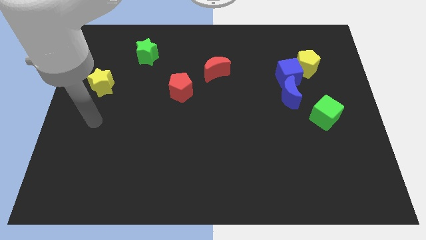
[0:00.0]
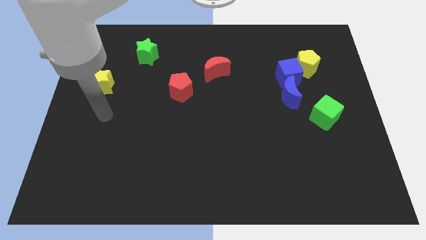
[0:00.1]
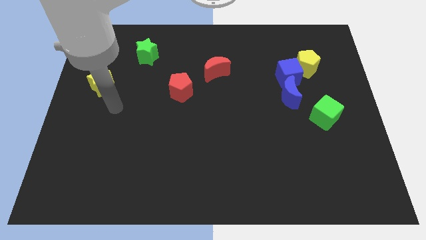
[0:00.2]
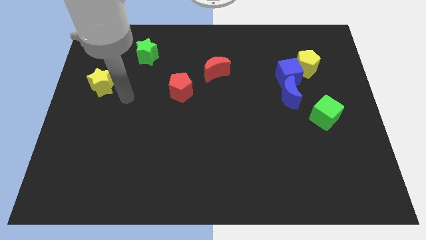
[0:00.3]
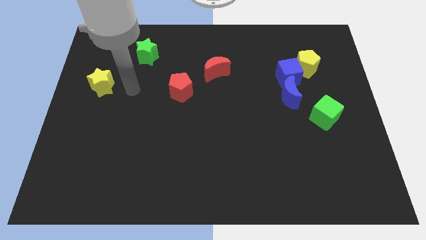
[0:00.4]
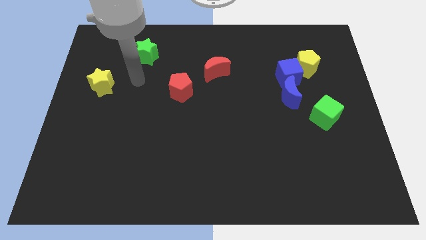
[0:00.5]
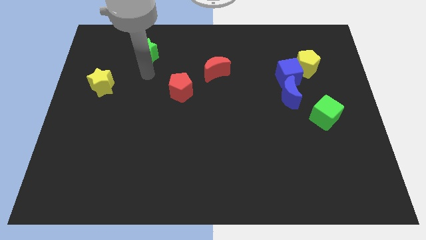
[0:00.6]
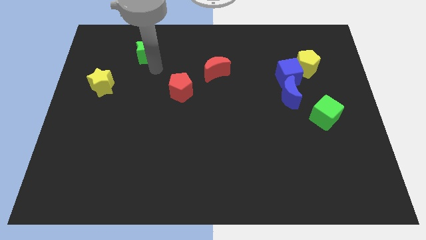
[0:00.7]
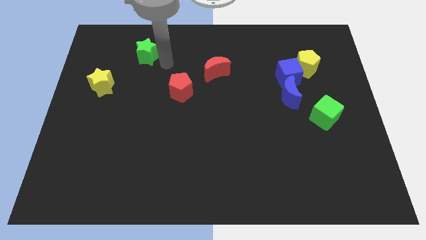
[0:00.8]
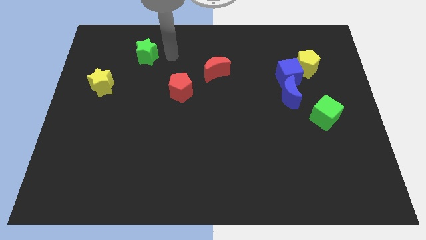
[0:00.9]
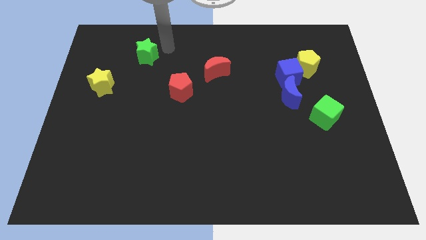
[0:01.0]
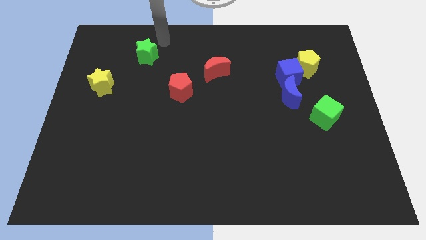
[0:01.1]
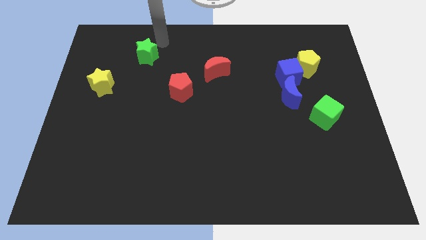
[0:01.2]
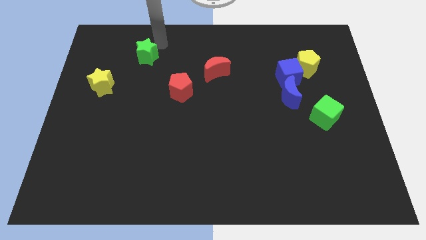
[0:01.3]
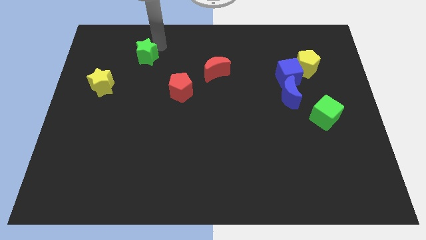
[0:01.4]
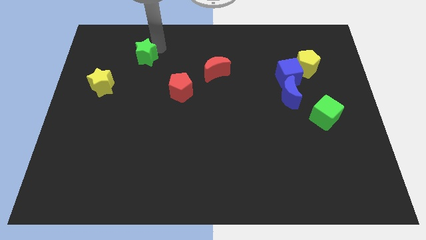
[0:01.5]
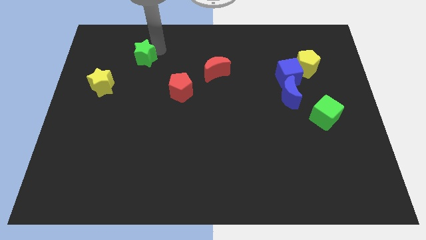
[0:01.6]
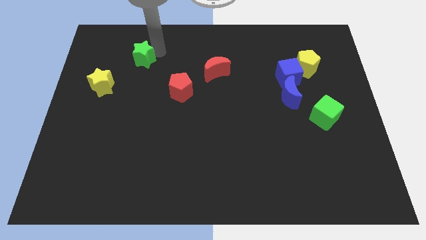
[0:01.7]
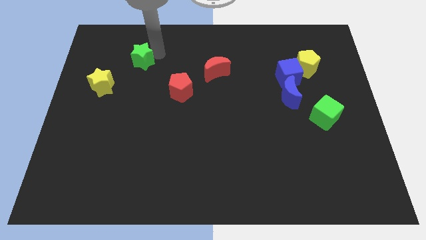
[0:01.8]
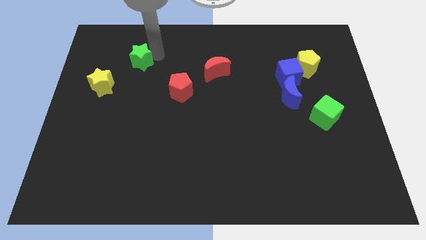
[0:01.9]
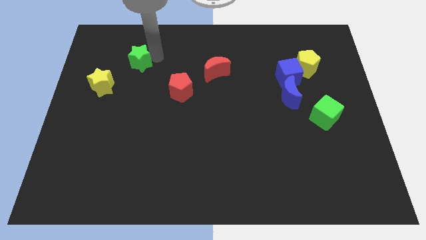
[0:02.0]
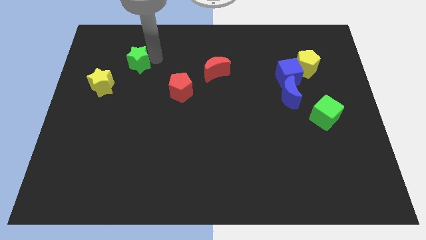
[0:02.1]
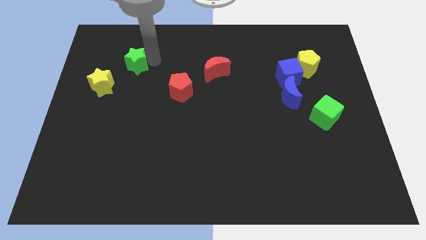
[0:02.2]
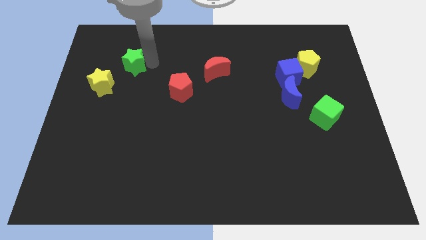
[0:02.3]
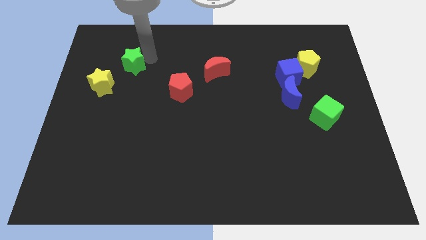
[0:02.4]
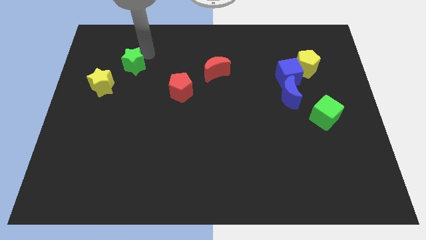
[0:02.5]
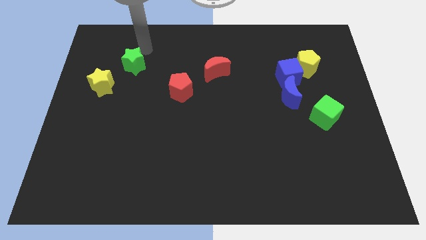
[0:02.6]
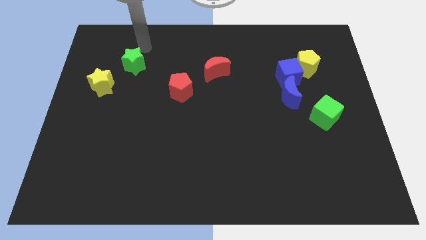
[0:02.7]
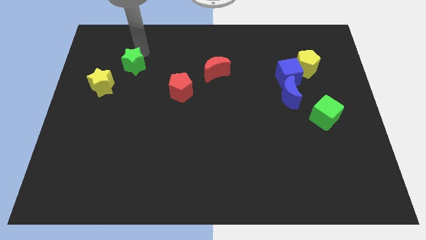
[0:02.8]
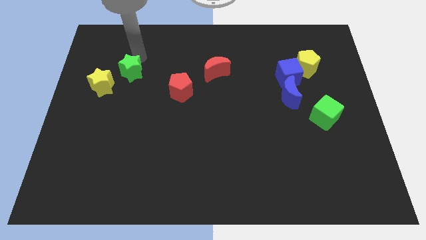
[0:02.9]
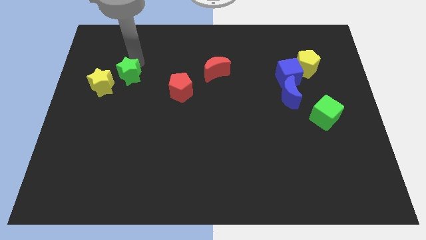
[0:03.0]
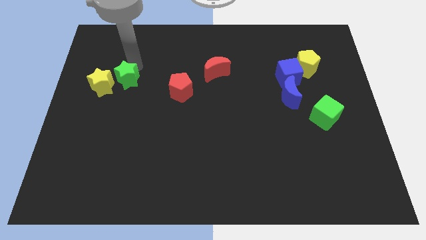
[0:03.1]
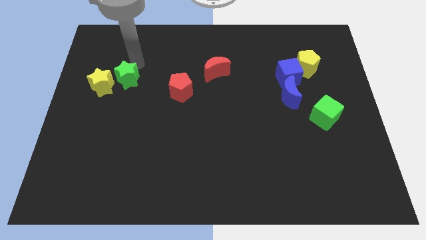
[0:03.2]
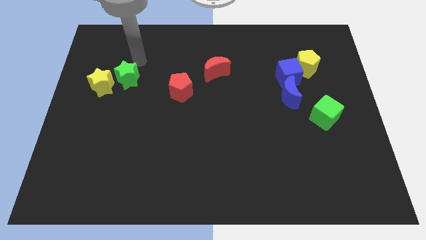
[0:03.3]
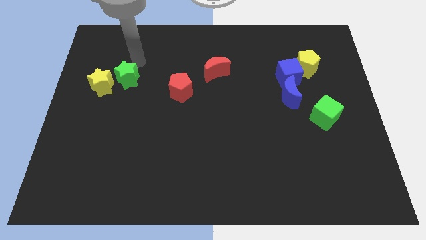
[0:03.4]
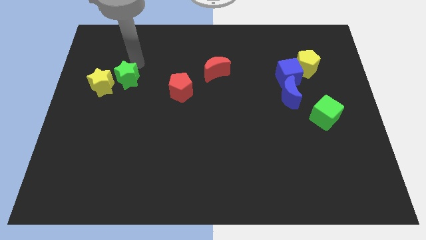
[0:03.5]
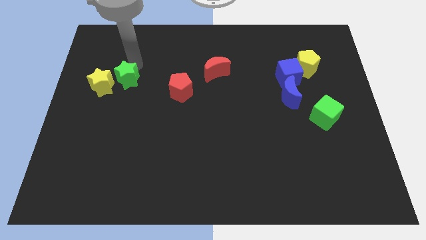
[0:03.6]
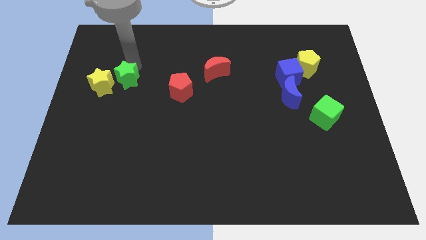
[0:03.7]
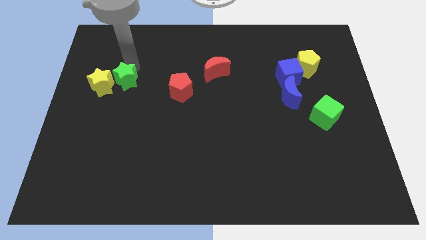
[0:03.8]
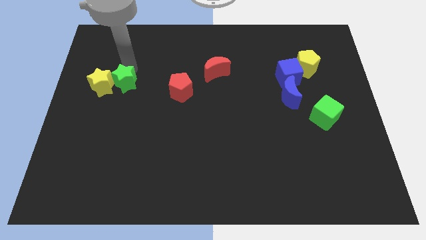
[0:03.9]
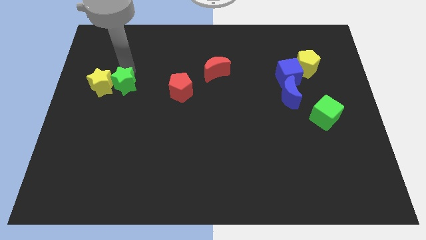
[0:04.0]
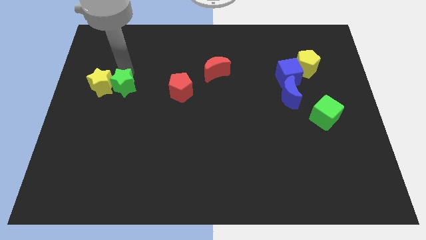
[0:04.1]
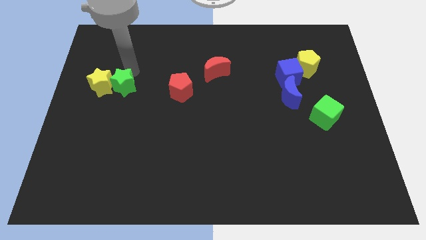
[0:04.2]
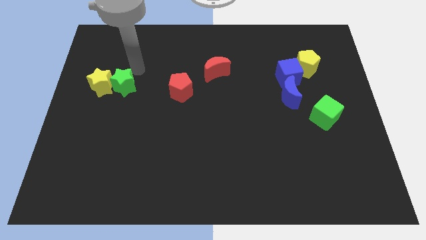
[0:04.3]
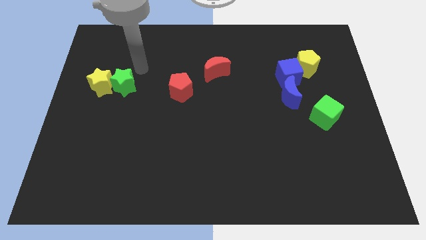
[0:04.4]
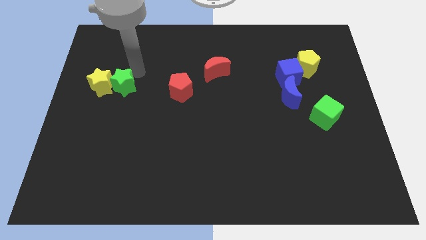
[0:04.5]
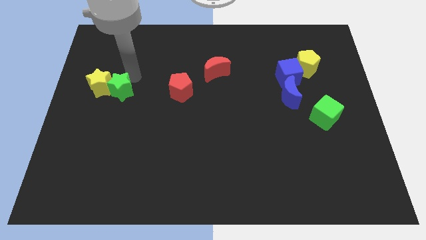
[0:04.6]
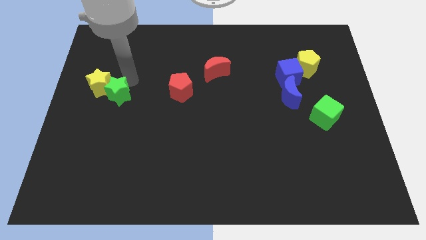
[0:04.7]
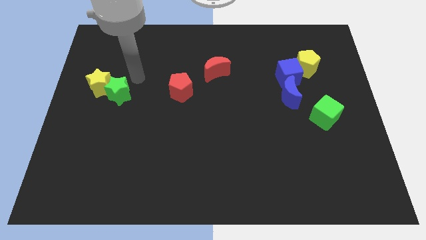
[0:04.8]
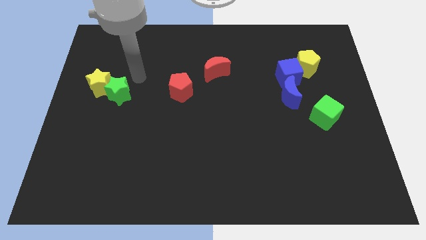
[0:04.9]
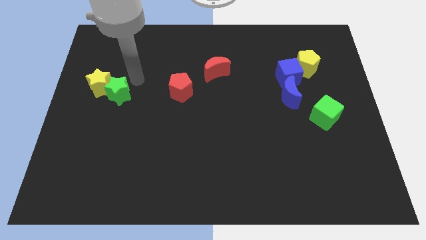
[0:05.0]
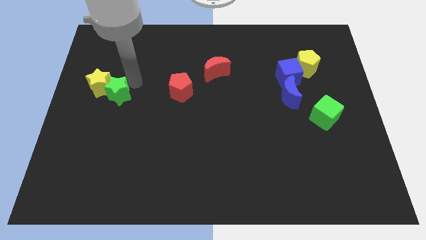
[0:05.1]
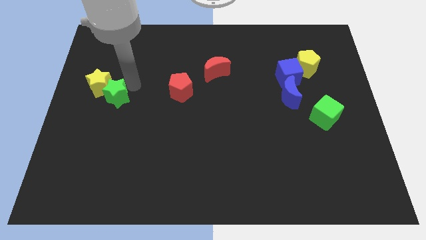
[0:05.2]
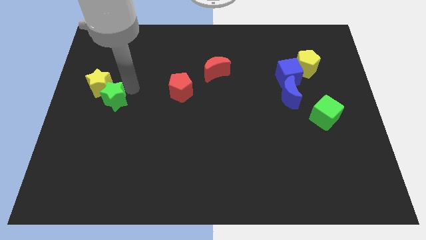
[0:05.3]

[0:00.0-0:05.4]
put the green star to the bottom side of the yellow star

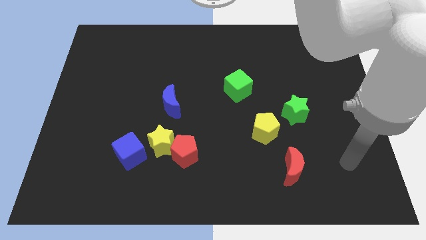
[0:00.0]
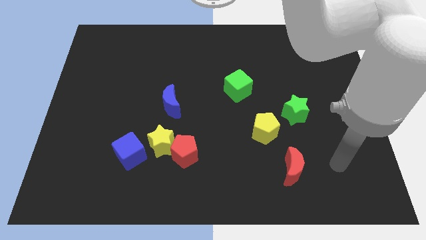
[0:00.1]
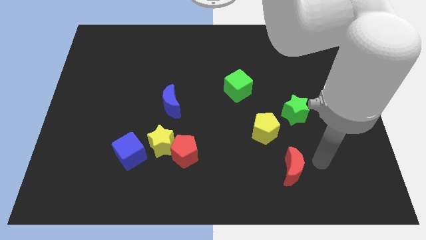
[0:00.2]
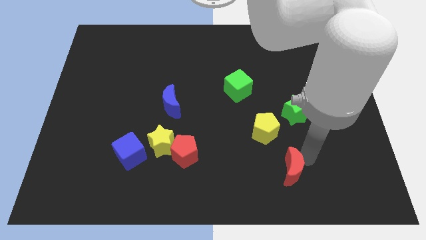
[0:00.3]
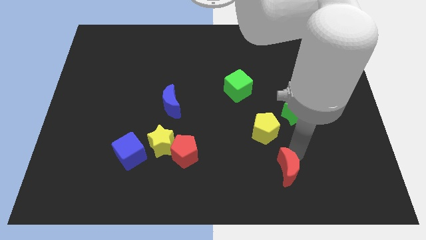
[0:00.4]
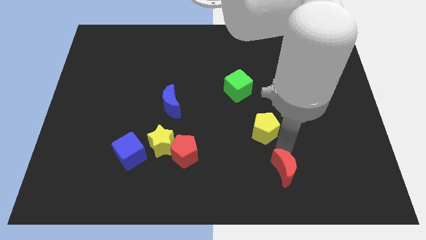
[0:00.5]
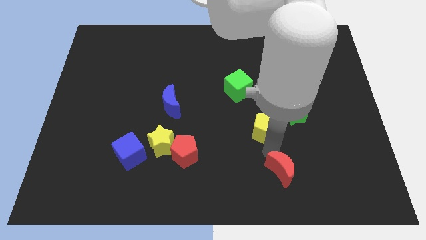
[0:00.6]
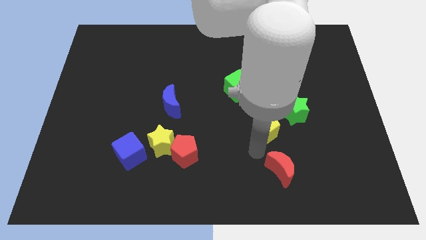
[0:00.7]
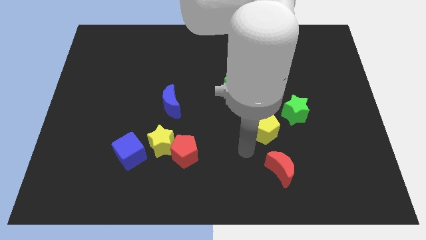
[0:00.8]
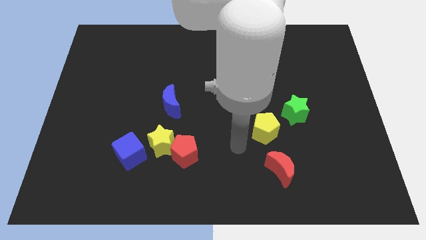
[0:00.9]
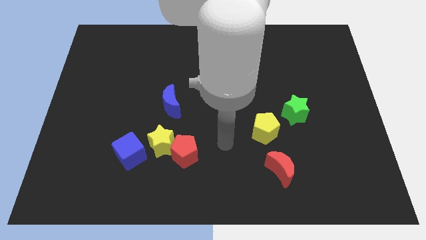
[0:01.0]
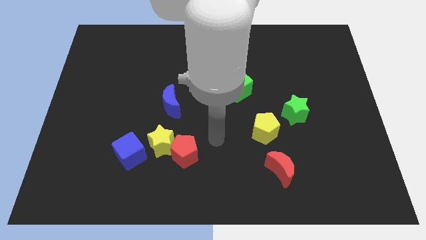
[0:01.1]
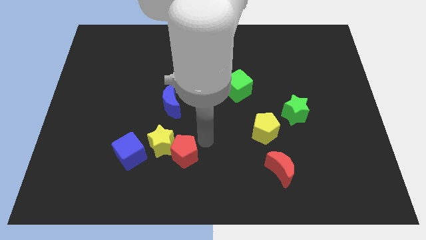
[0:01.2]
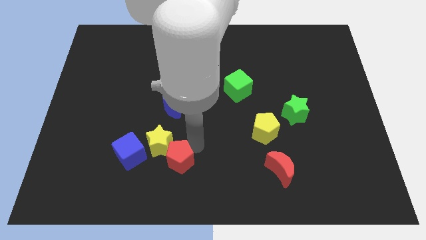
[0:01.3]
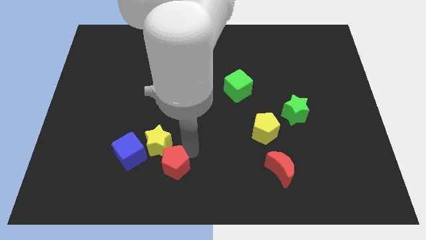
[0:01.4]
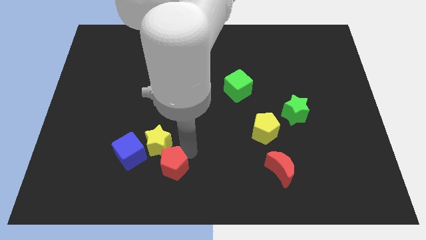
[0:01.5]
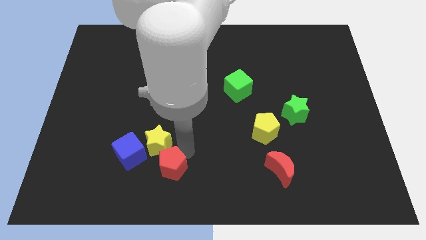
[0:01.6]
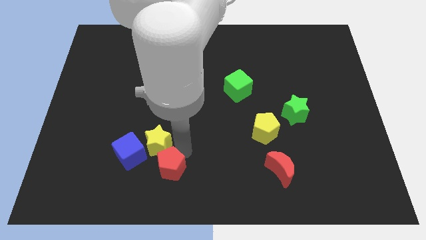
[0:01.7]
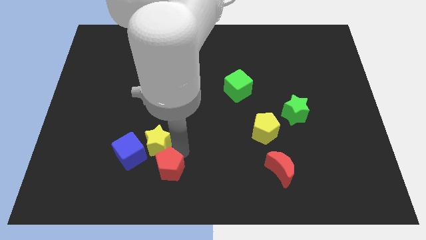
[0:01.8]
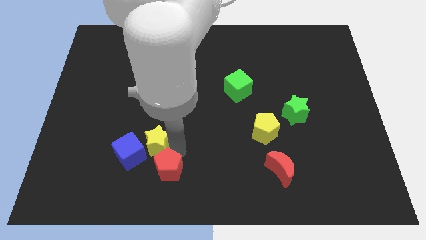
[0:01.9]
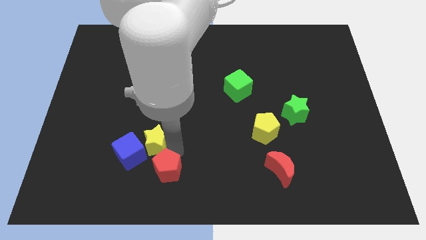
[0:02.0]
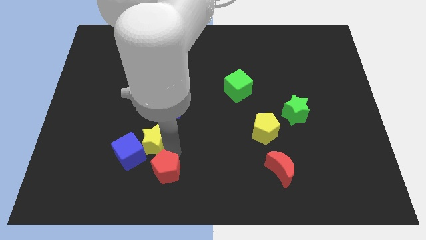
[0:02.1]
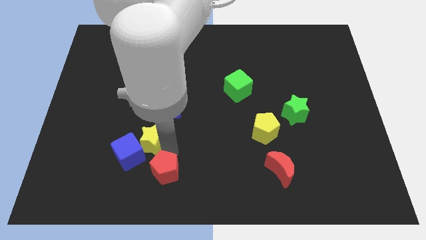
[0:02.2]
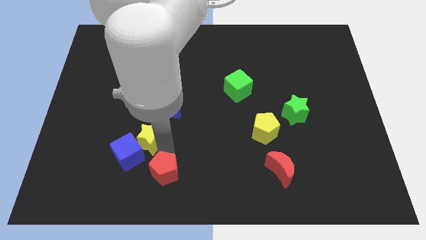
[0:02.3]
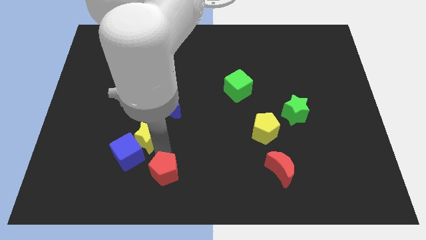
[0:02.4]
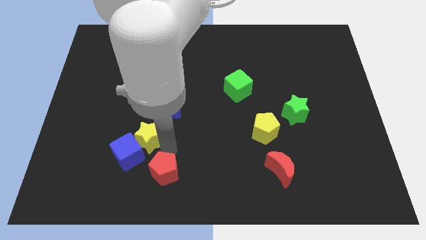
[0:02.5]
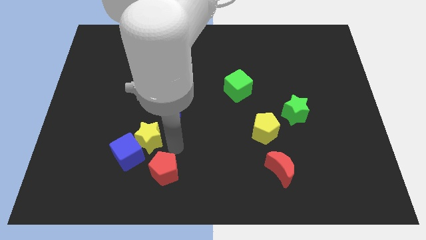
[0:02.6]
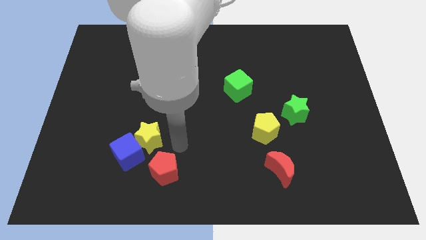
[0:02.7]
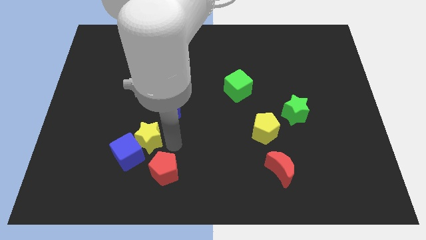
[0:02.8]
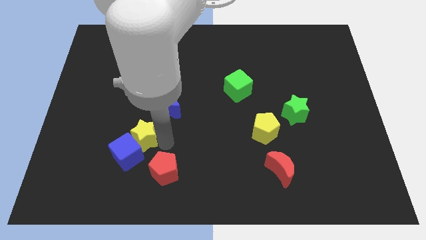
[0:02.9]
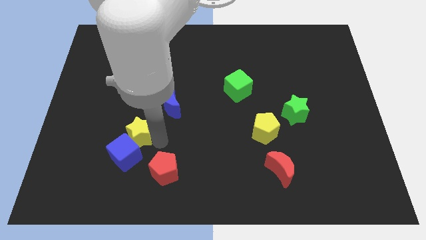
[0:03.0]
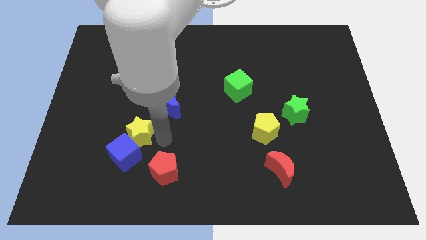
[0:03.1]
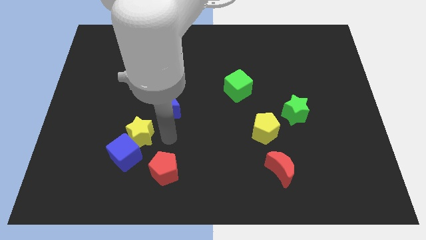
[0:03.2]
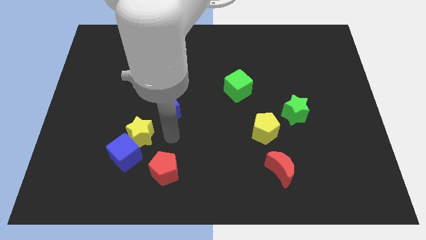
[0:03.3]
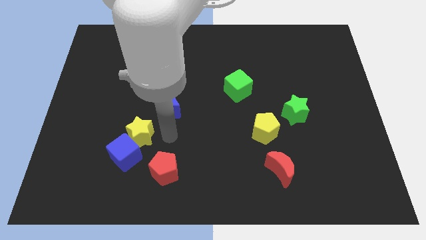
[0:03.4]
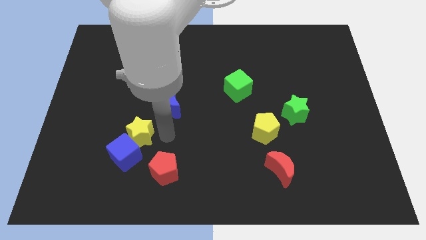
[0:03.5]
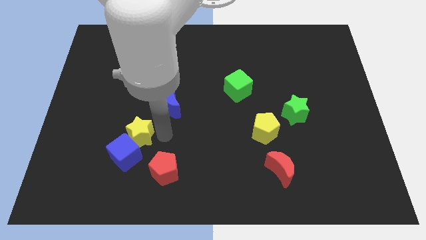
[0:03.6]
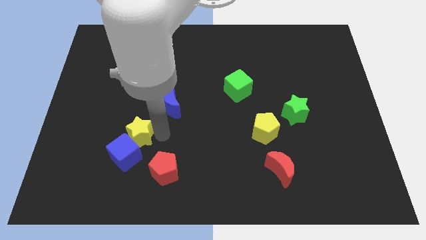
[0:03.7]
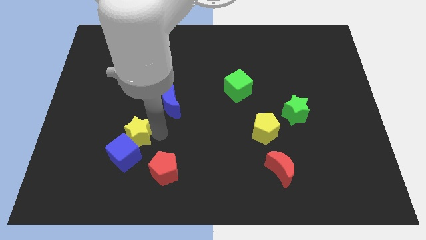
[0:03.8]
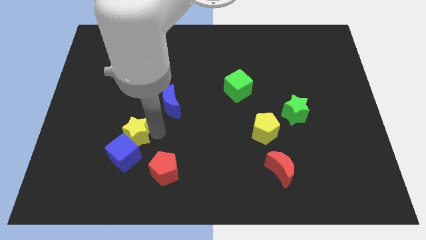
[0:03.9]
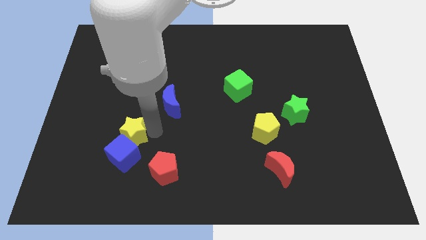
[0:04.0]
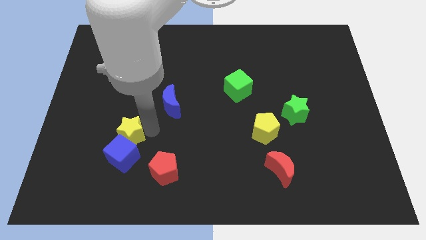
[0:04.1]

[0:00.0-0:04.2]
put the yellow star to the top left of the blue cube
